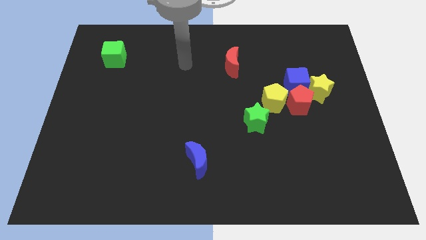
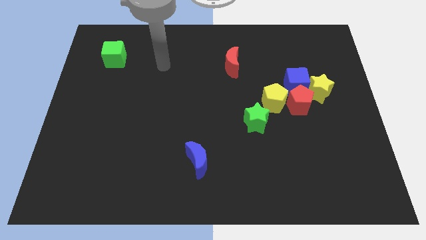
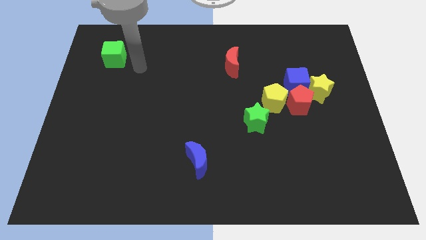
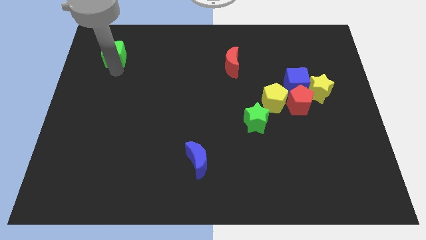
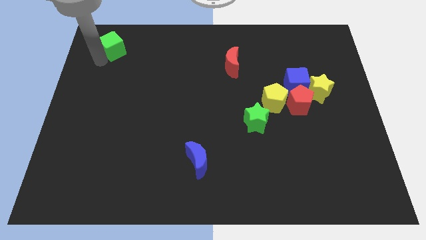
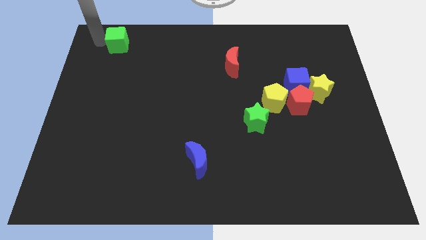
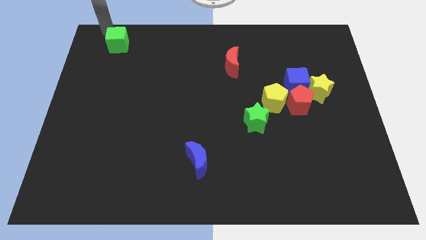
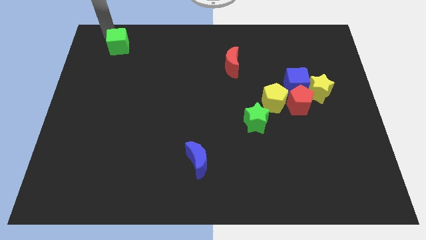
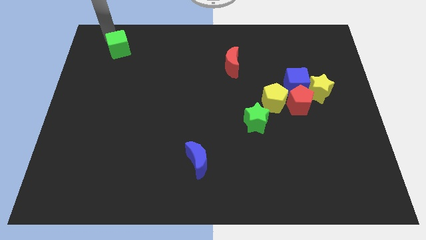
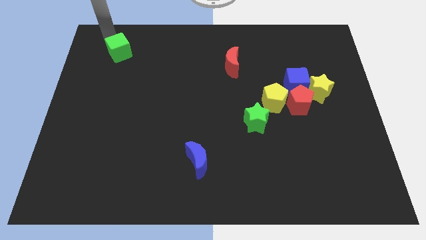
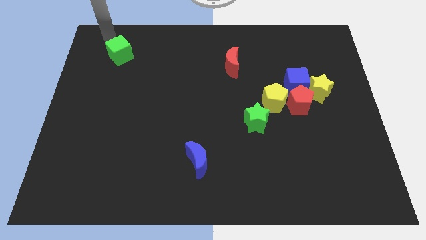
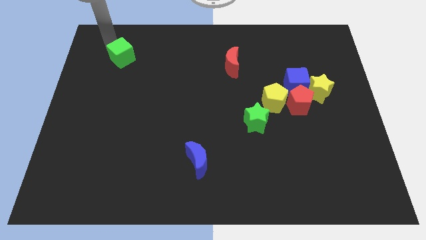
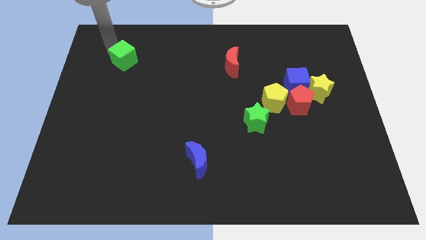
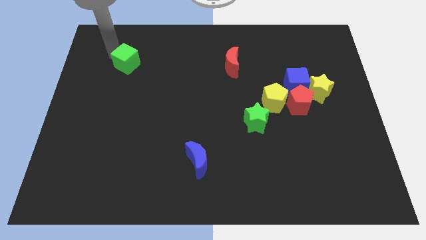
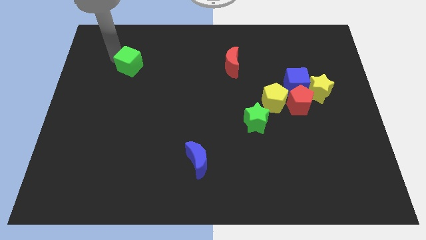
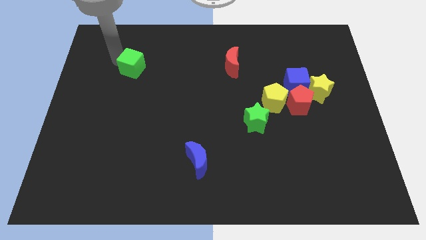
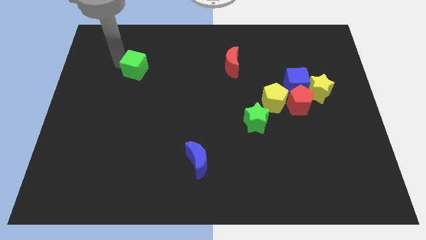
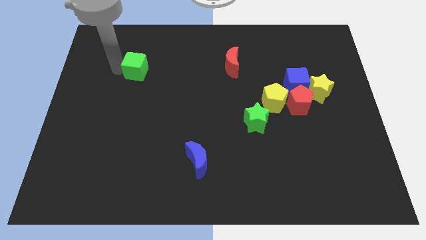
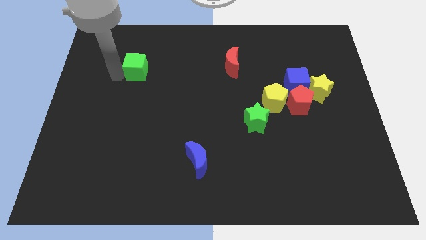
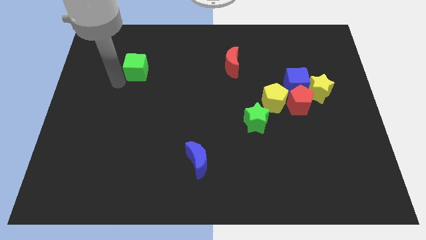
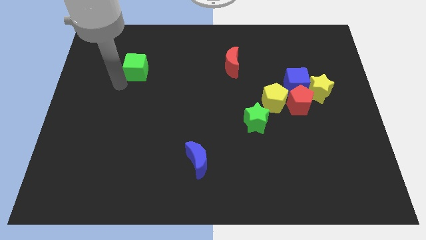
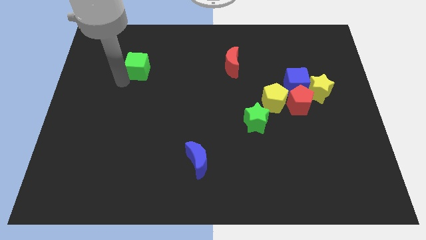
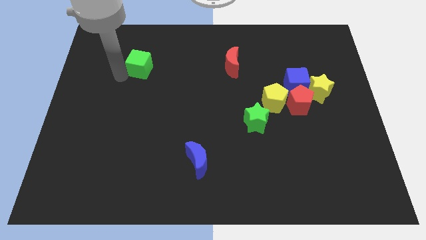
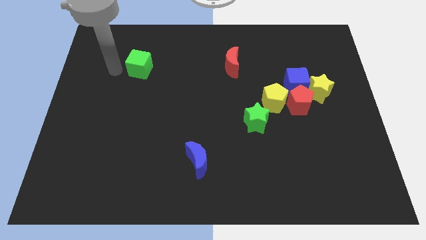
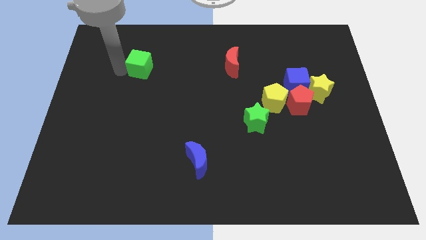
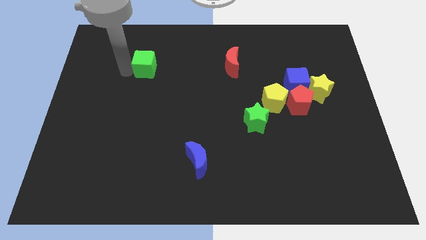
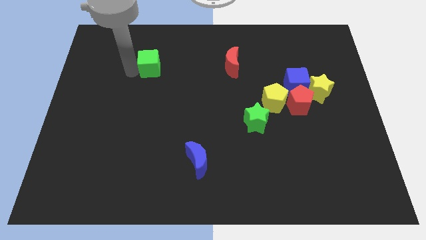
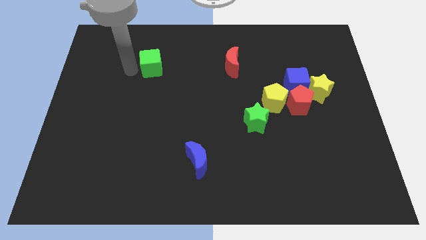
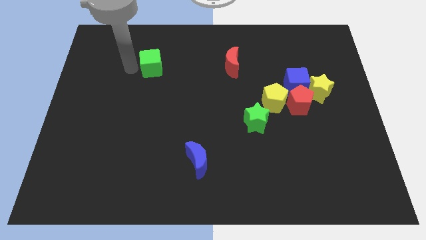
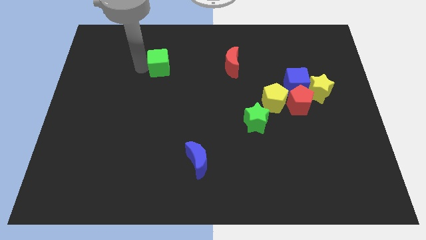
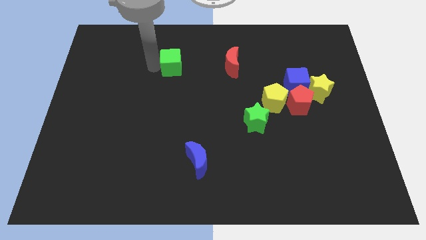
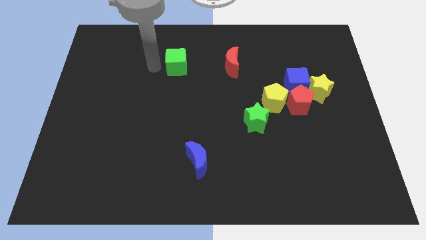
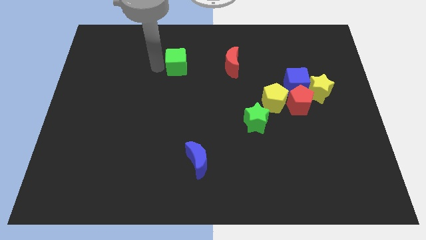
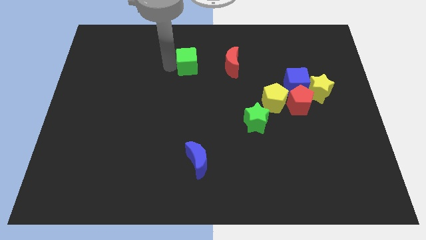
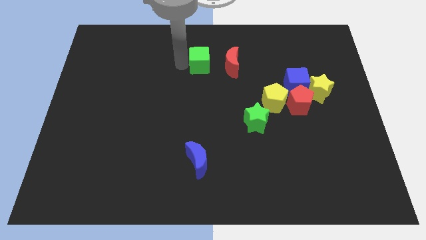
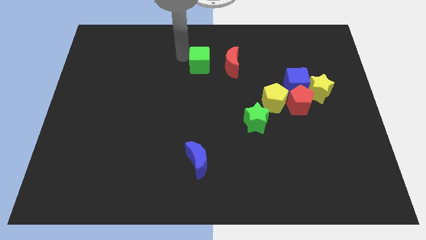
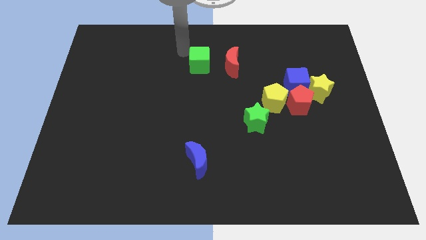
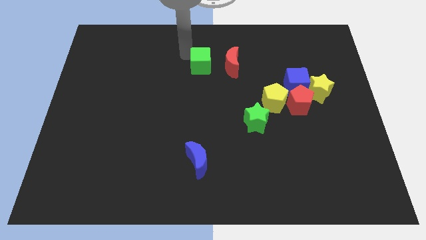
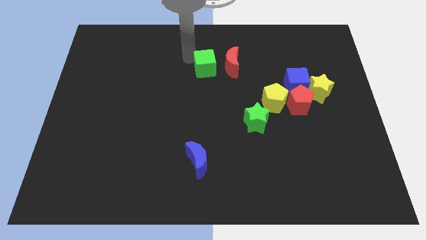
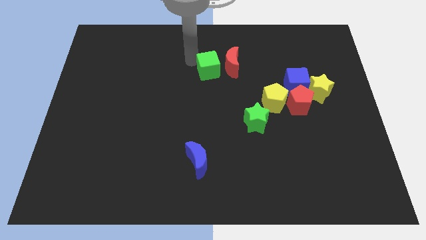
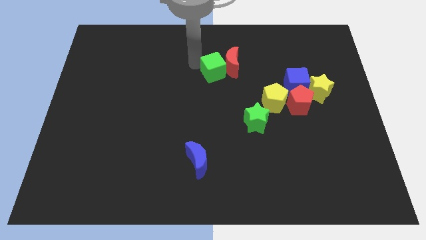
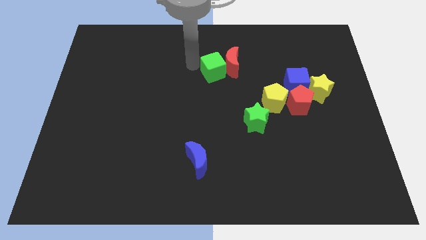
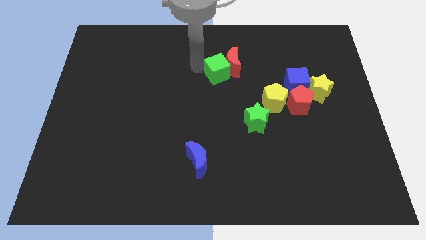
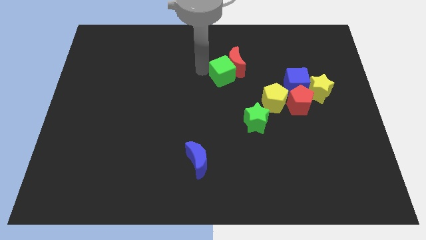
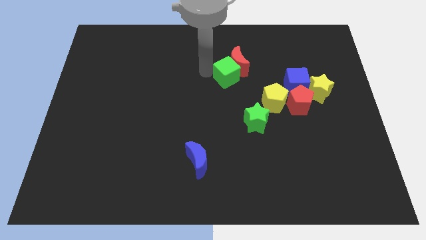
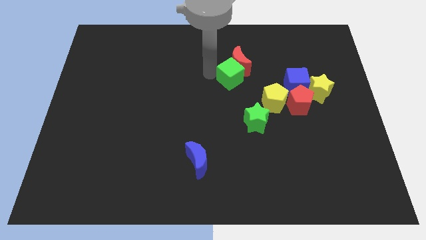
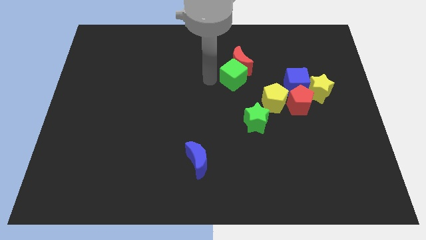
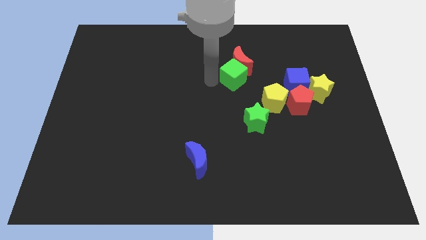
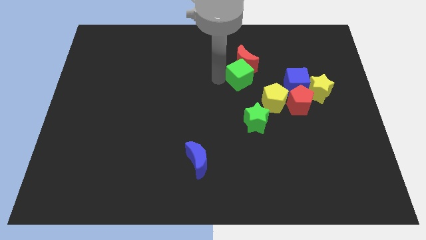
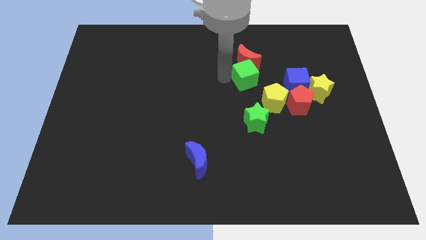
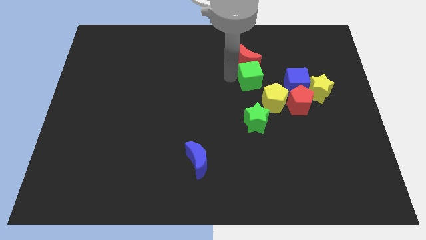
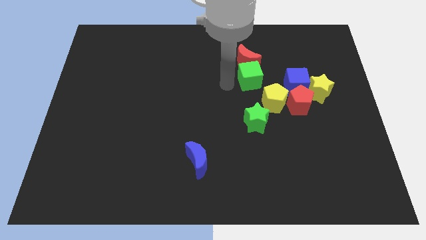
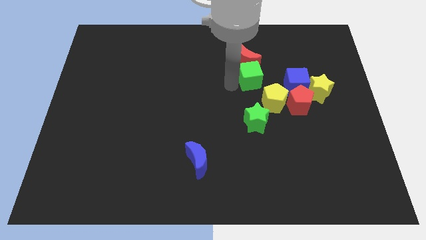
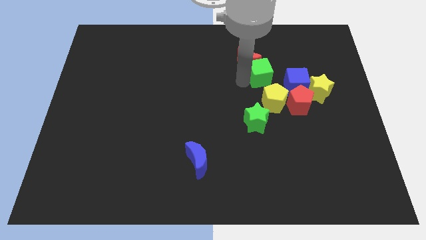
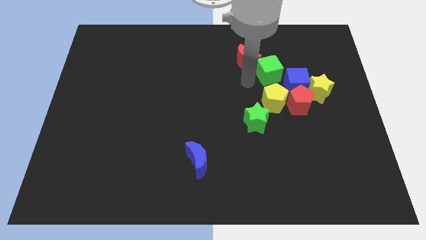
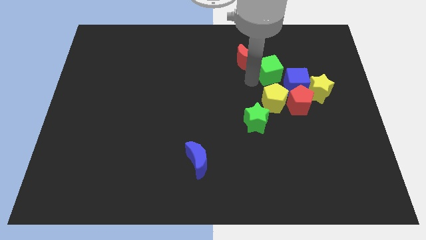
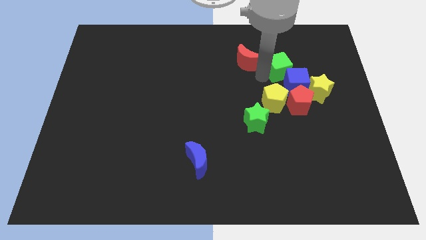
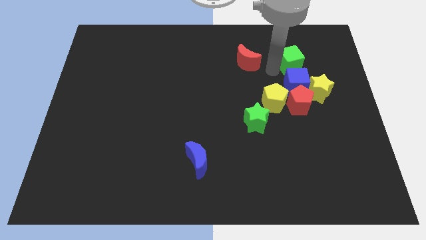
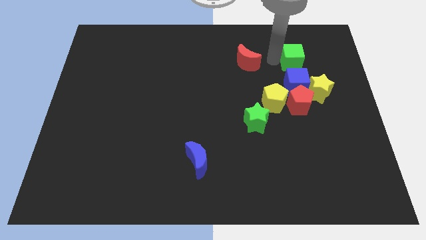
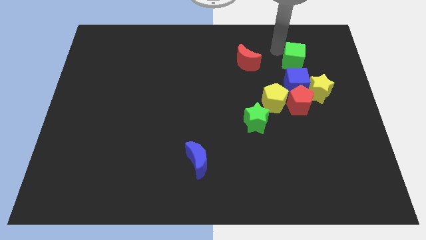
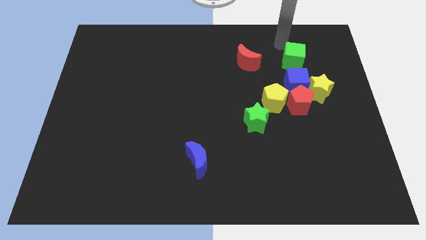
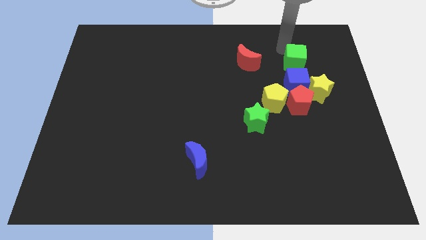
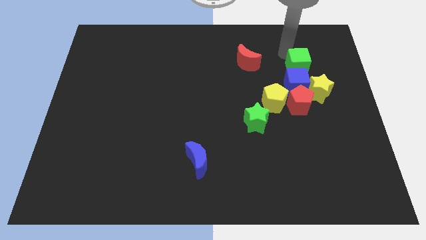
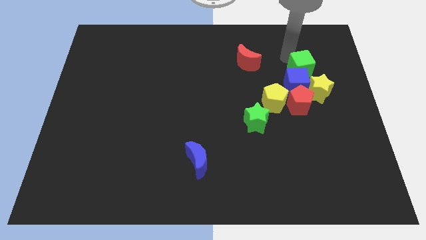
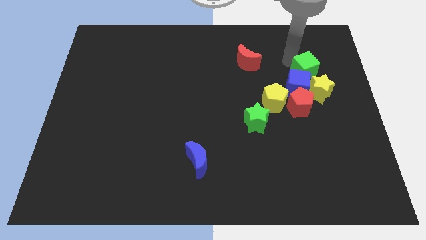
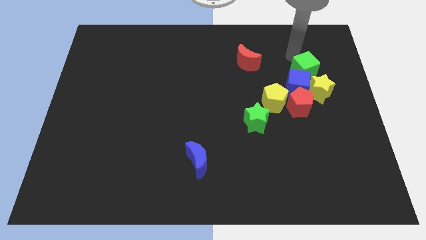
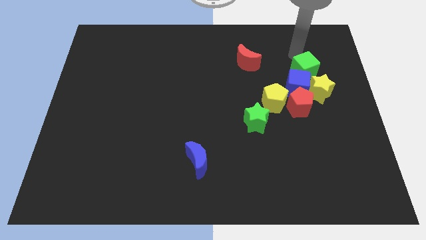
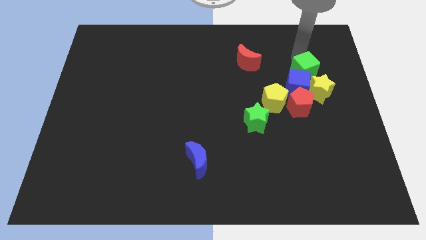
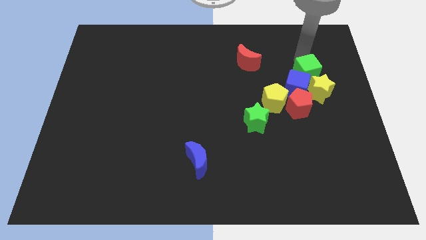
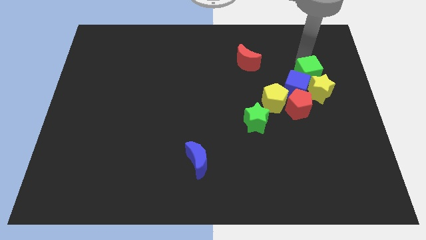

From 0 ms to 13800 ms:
slide the green cube towards the yellow star

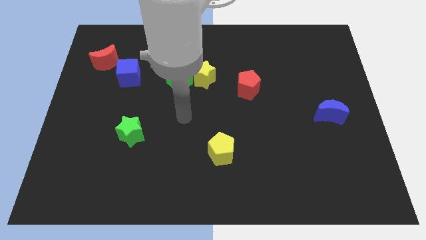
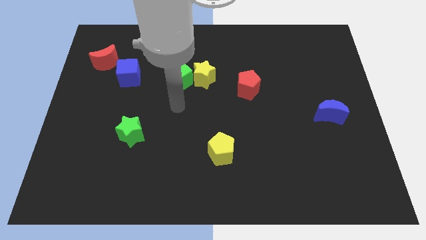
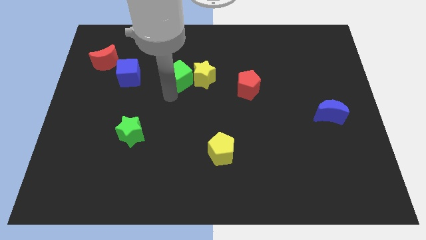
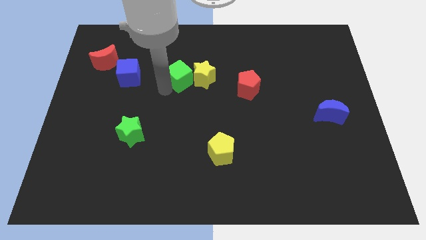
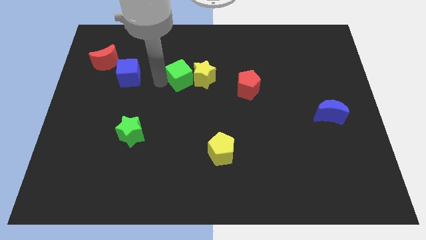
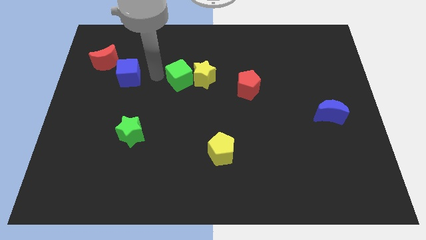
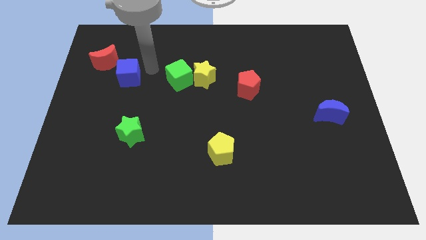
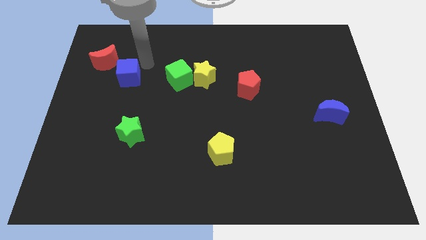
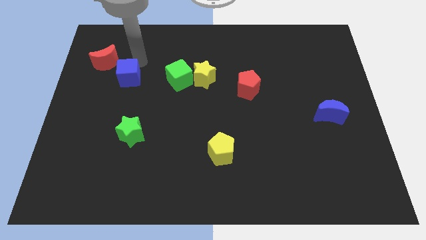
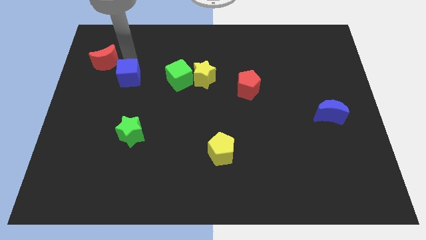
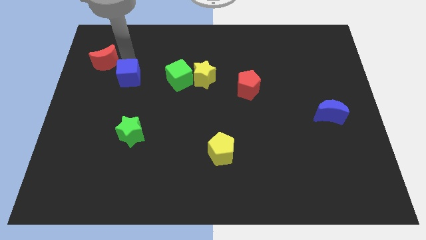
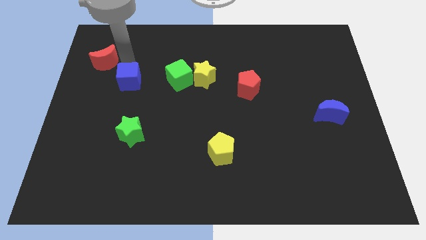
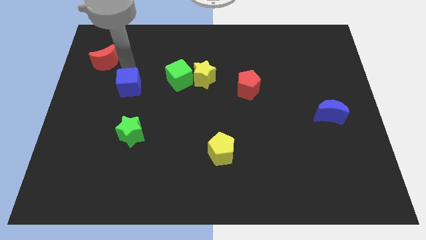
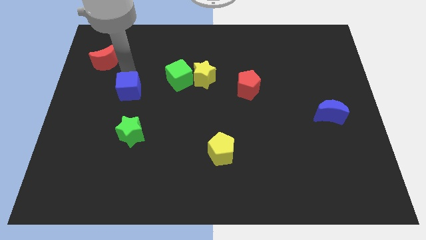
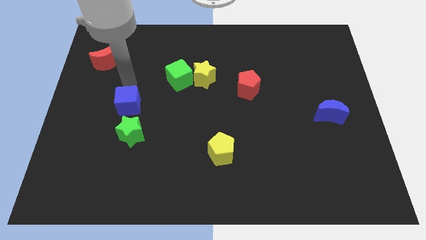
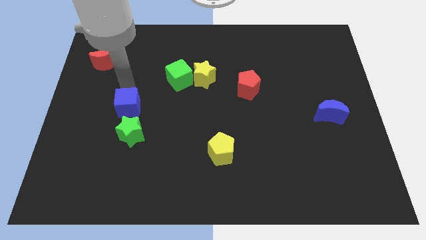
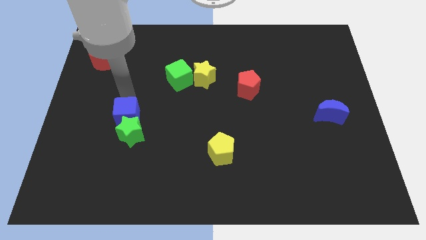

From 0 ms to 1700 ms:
put the blue cube to the green star
